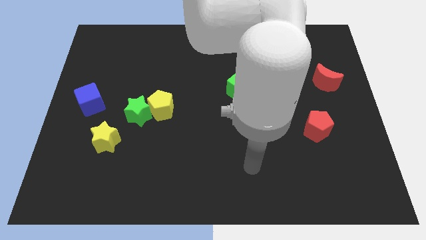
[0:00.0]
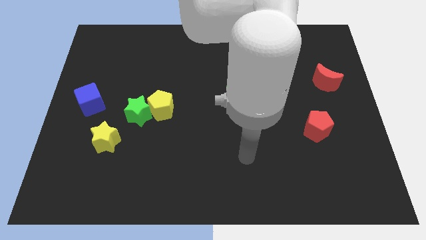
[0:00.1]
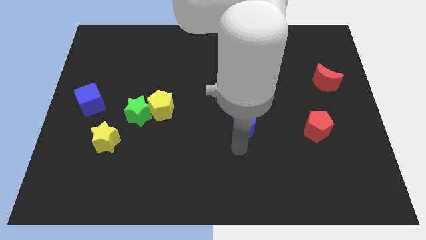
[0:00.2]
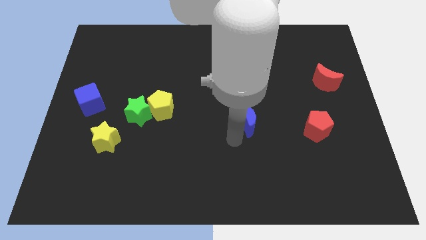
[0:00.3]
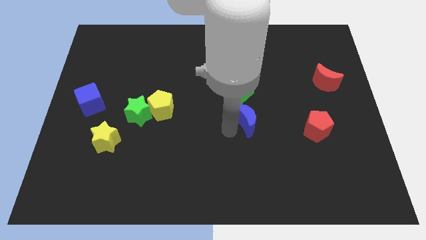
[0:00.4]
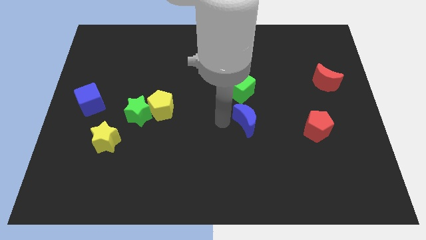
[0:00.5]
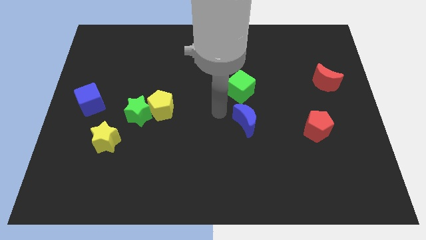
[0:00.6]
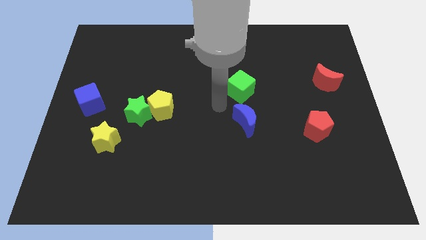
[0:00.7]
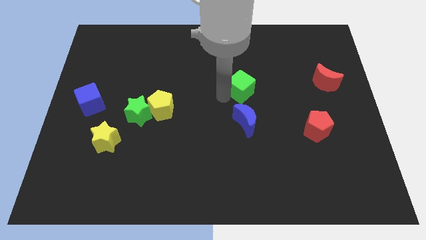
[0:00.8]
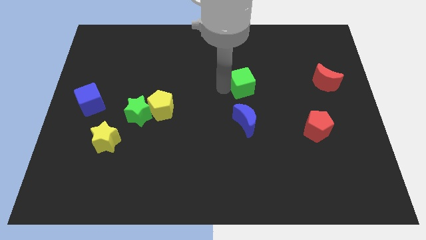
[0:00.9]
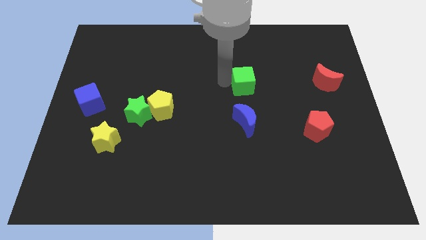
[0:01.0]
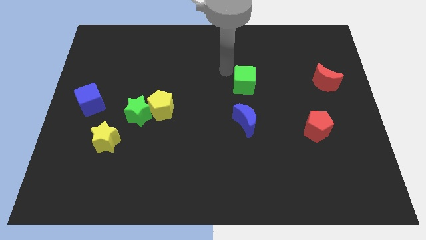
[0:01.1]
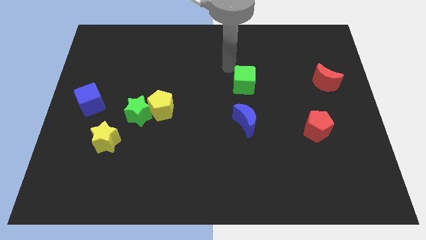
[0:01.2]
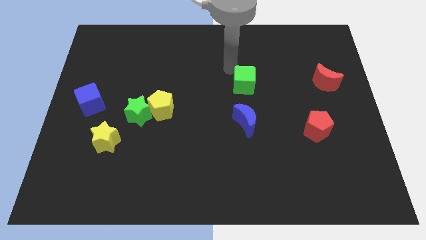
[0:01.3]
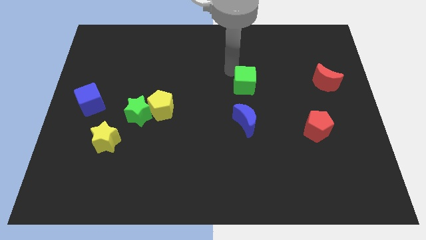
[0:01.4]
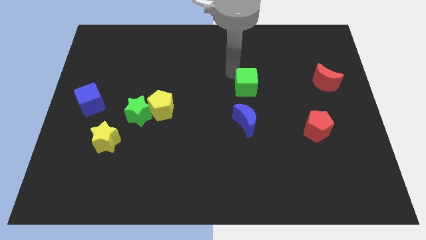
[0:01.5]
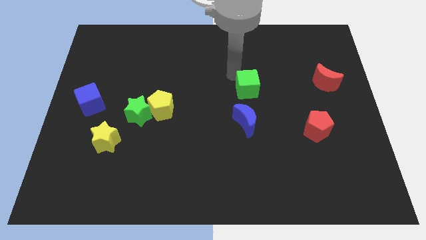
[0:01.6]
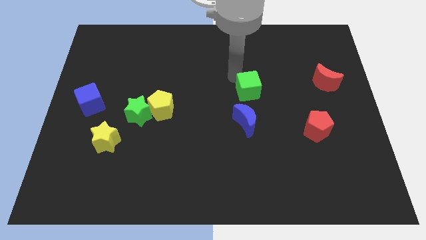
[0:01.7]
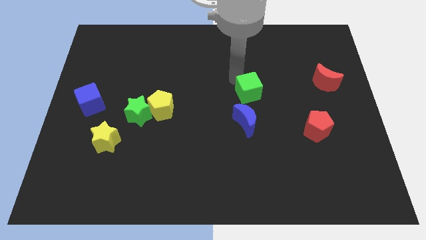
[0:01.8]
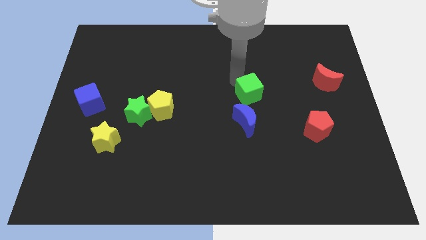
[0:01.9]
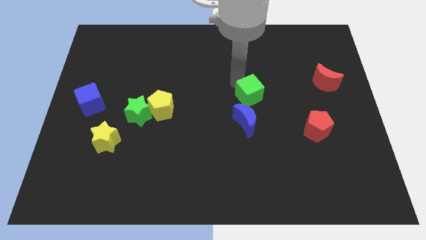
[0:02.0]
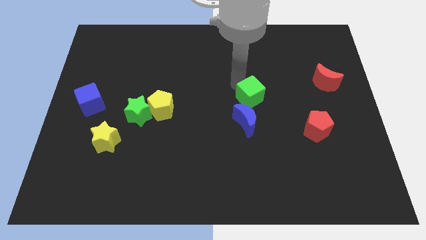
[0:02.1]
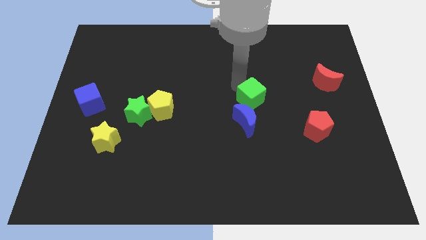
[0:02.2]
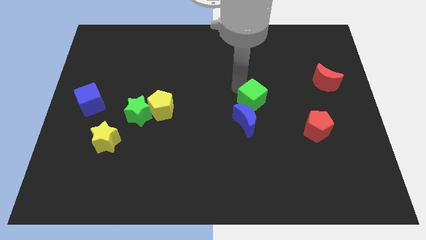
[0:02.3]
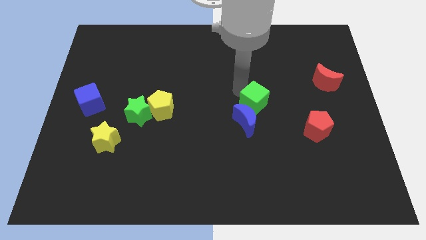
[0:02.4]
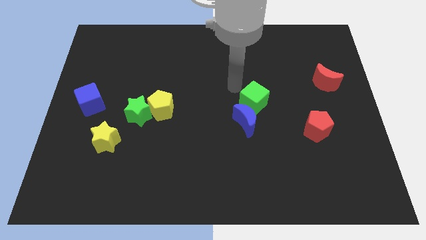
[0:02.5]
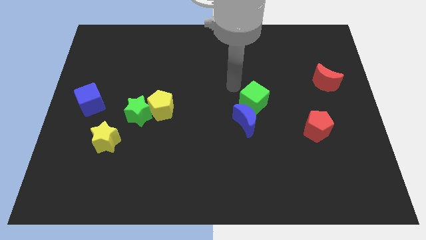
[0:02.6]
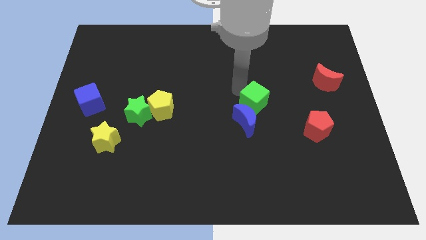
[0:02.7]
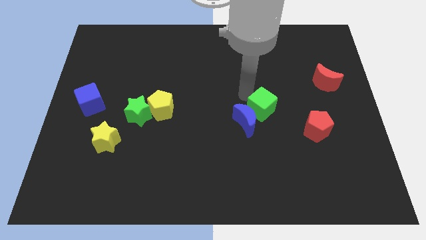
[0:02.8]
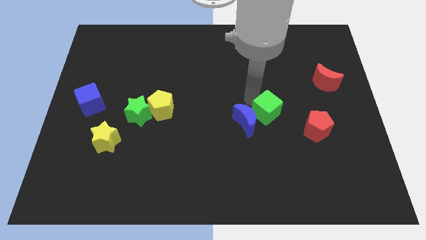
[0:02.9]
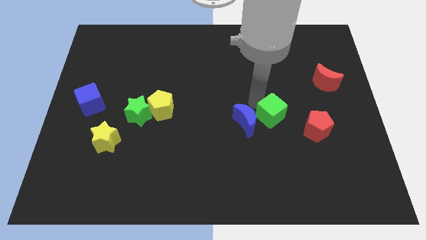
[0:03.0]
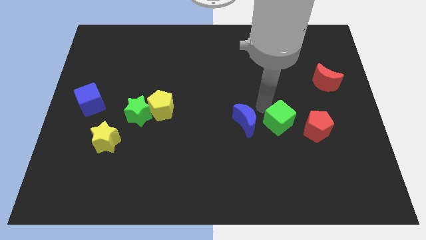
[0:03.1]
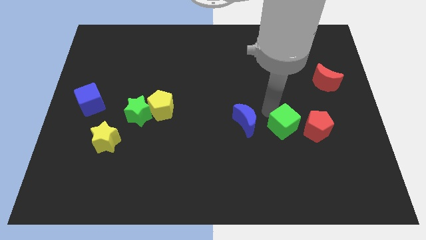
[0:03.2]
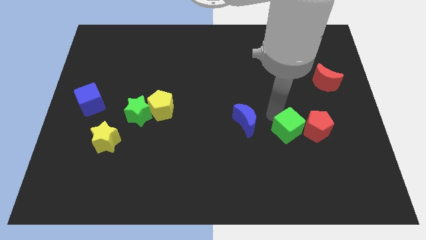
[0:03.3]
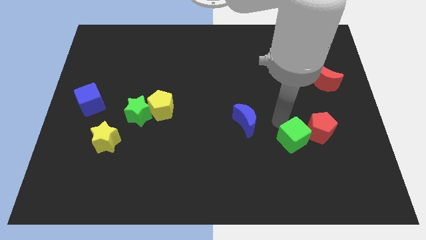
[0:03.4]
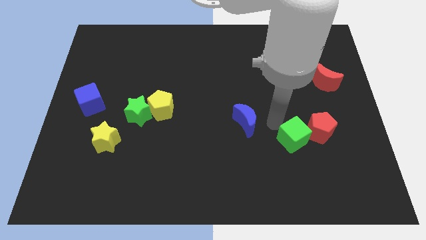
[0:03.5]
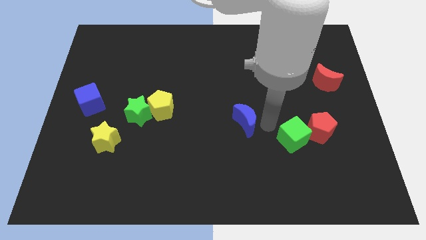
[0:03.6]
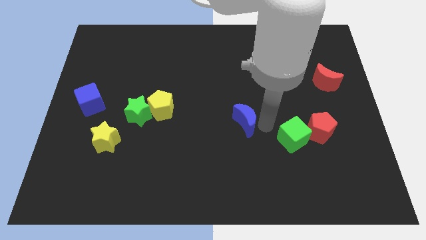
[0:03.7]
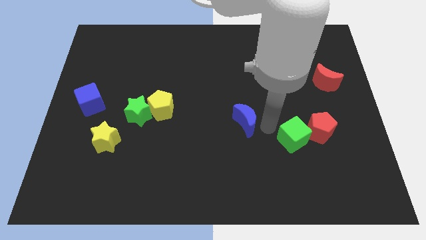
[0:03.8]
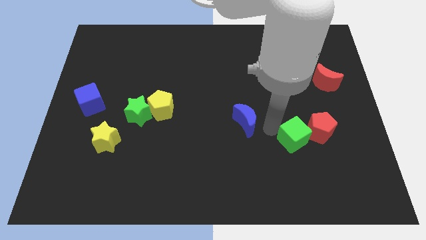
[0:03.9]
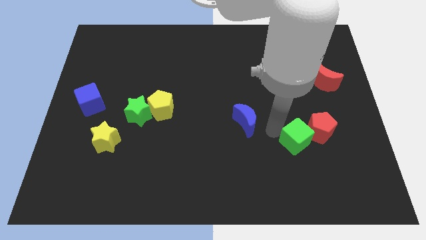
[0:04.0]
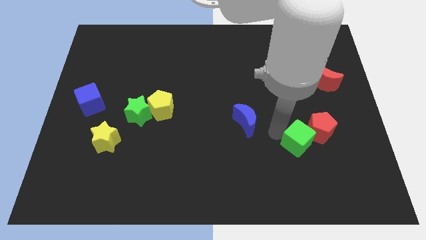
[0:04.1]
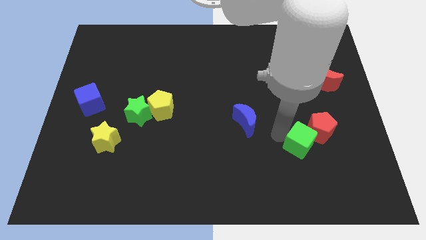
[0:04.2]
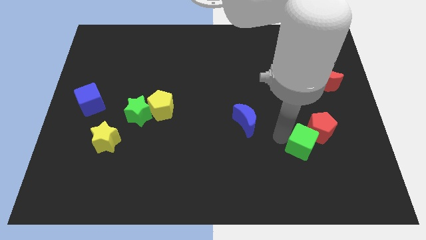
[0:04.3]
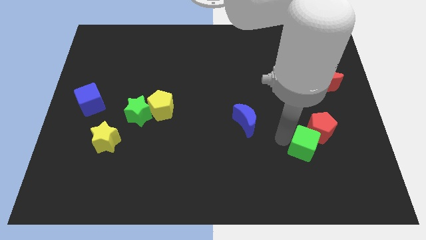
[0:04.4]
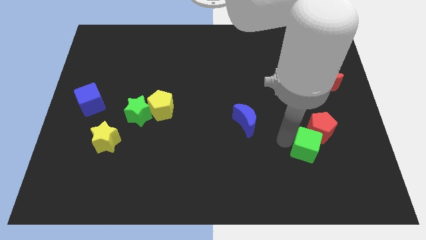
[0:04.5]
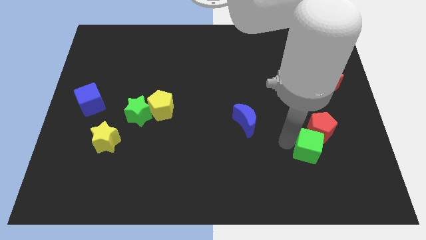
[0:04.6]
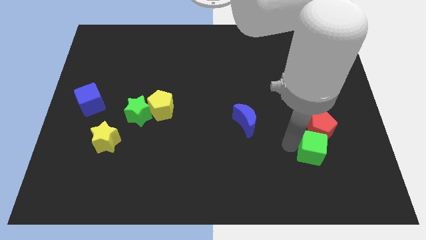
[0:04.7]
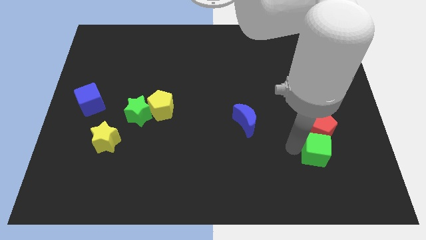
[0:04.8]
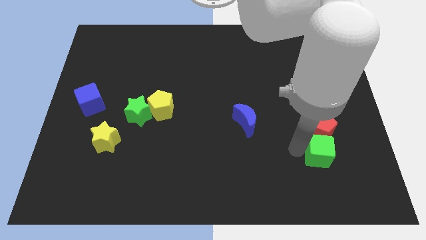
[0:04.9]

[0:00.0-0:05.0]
push the green cube to the bottom right side of the red pentagon

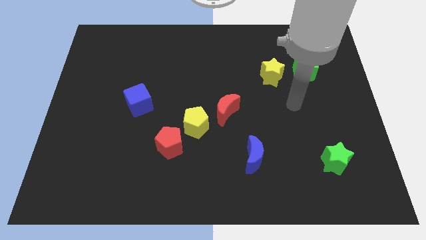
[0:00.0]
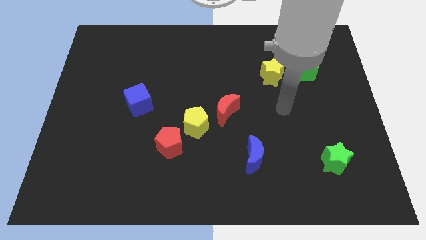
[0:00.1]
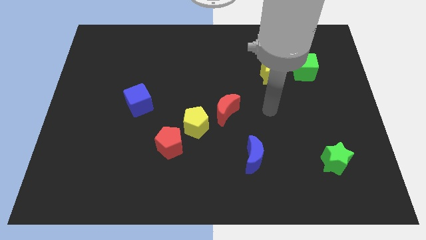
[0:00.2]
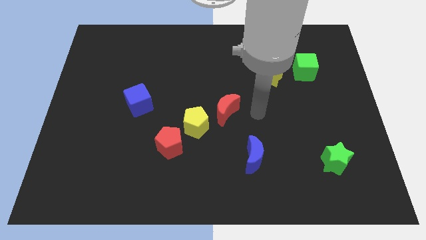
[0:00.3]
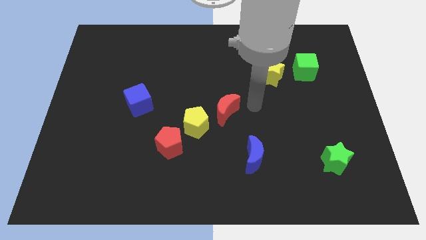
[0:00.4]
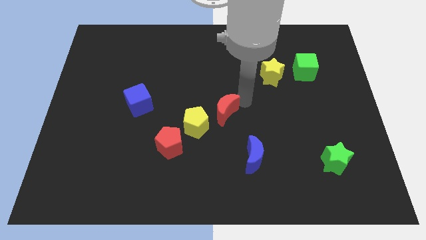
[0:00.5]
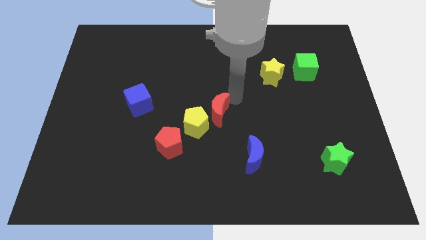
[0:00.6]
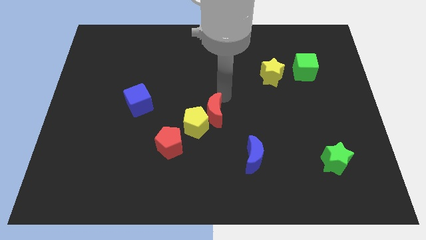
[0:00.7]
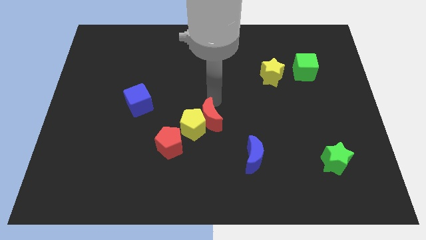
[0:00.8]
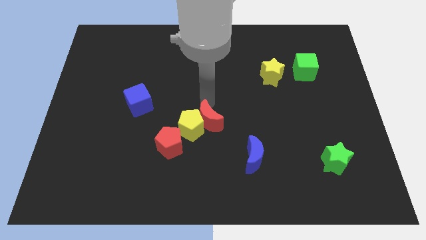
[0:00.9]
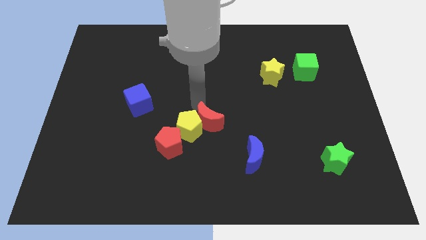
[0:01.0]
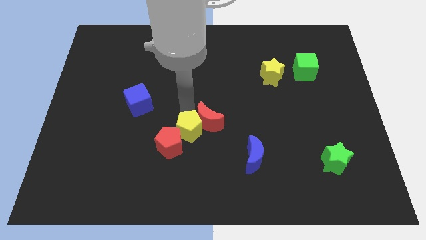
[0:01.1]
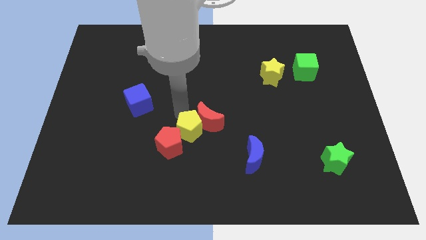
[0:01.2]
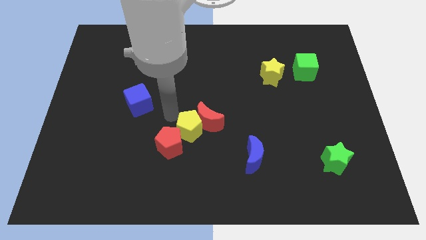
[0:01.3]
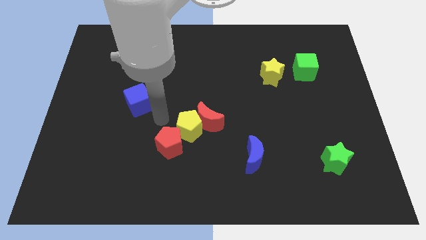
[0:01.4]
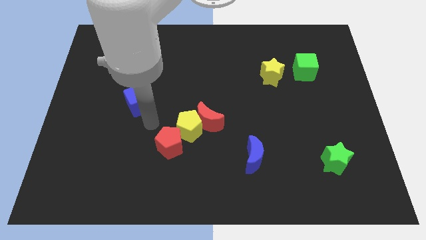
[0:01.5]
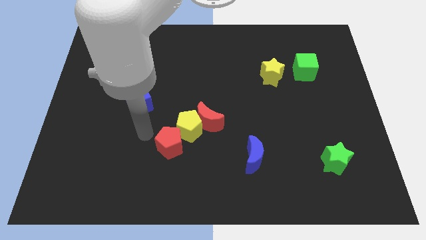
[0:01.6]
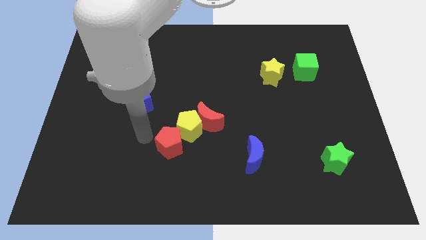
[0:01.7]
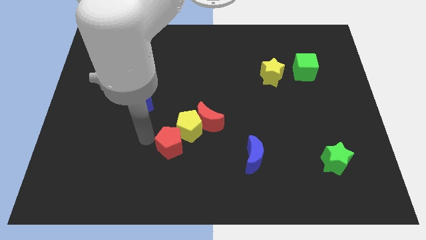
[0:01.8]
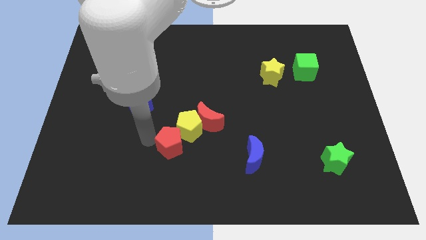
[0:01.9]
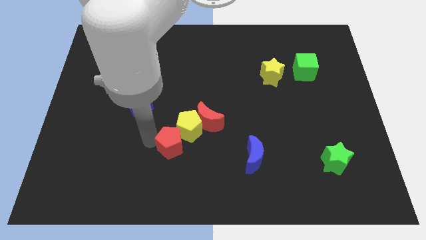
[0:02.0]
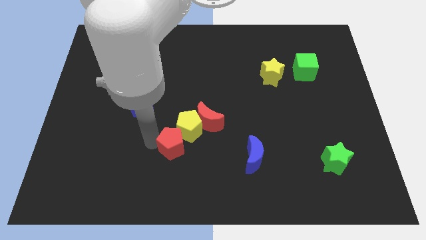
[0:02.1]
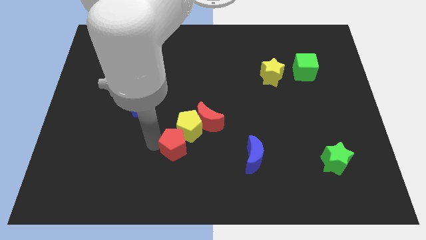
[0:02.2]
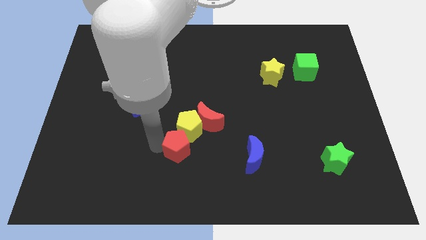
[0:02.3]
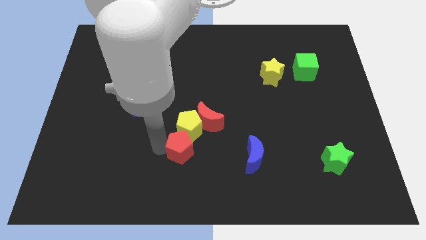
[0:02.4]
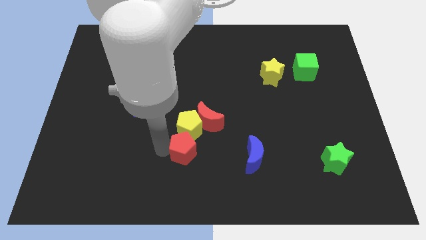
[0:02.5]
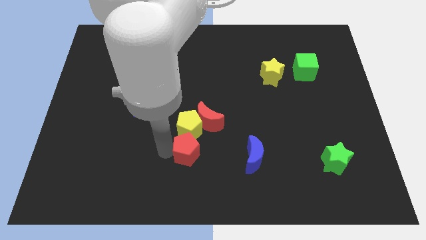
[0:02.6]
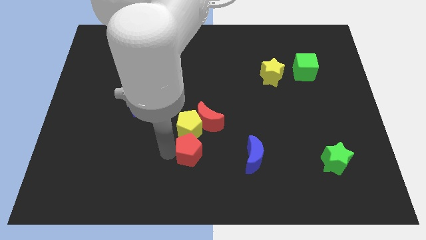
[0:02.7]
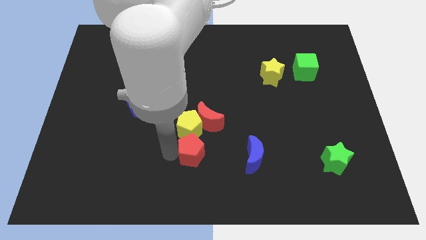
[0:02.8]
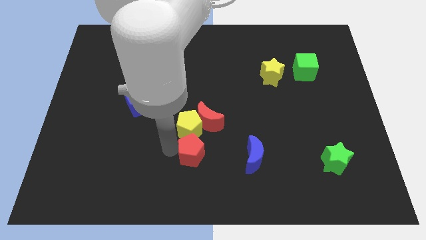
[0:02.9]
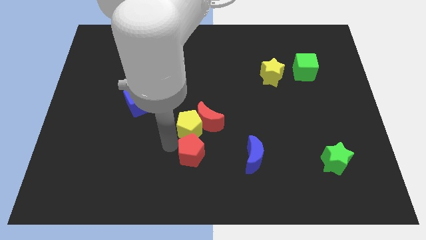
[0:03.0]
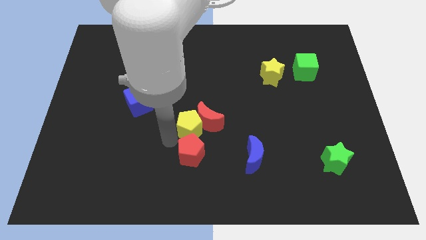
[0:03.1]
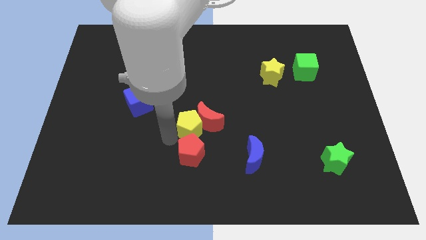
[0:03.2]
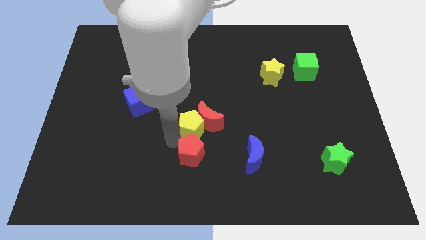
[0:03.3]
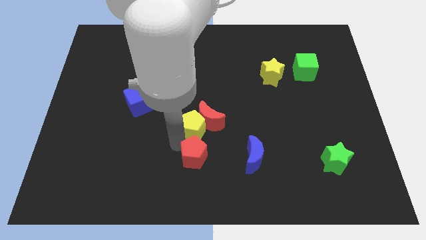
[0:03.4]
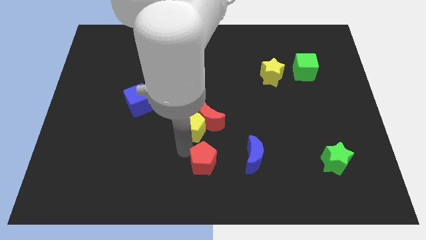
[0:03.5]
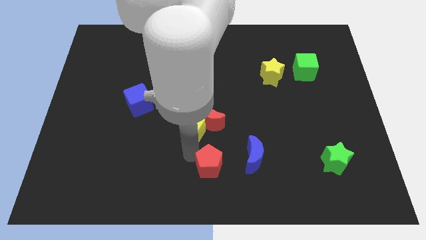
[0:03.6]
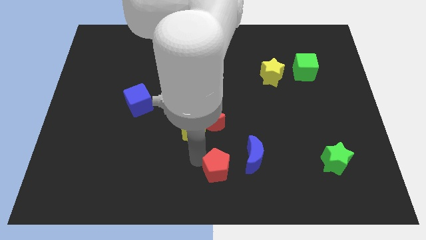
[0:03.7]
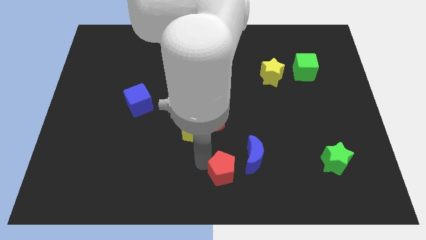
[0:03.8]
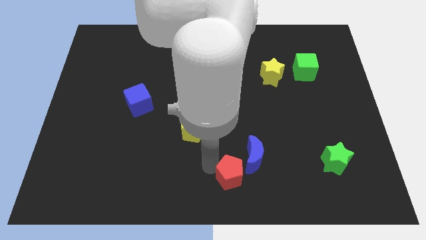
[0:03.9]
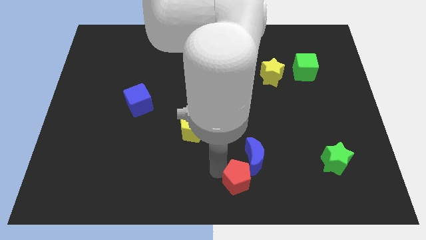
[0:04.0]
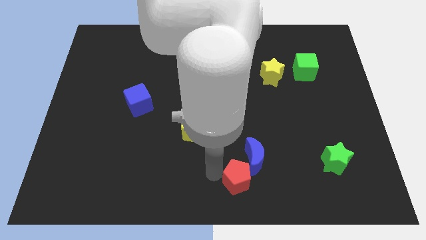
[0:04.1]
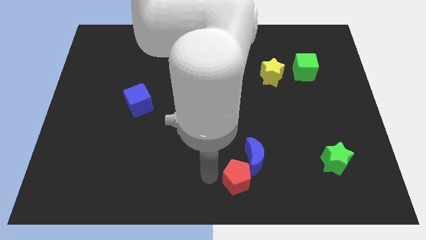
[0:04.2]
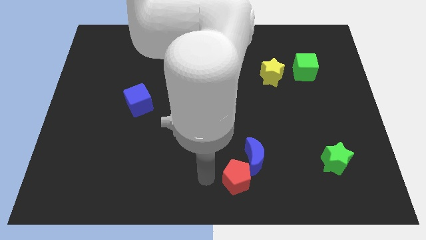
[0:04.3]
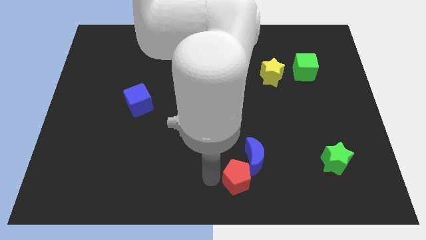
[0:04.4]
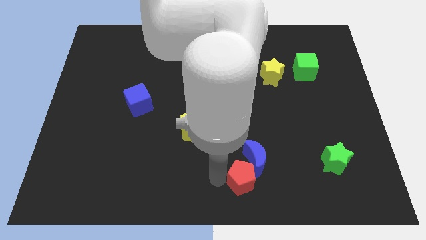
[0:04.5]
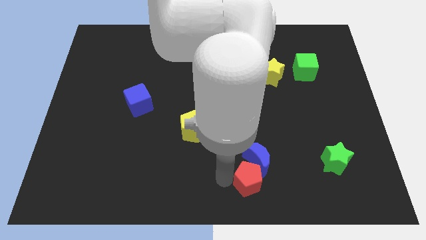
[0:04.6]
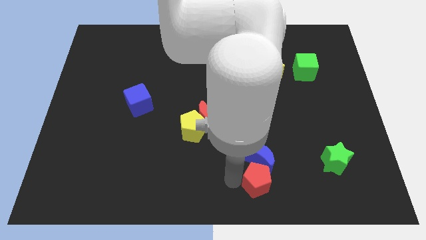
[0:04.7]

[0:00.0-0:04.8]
slide the red pentagon diagonally down and to the right of the blue moon
